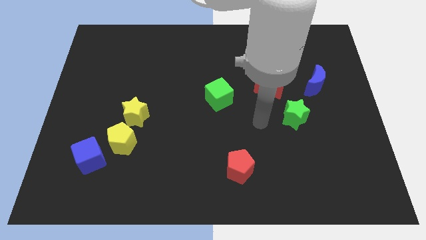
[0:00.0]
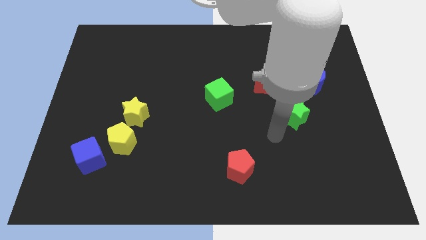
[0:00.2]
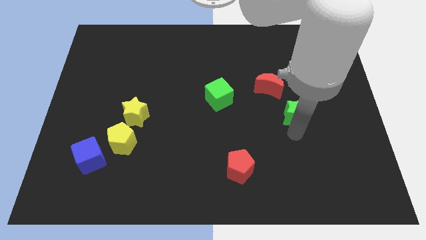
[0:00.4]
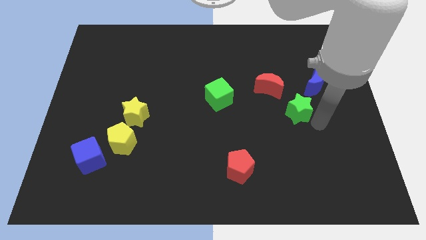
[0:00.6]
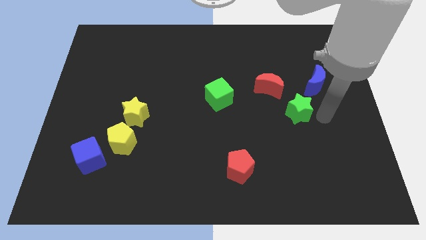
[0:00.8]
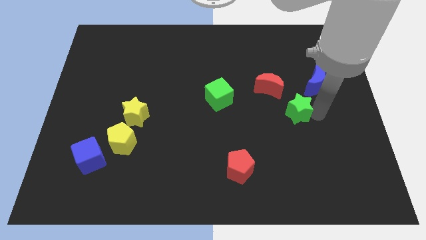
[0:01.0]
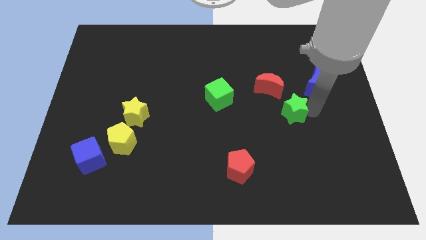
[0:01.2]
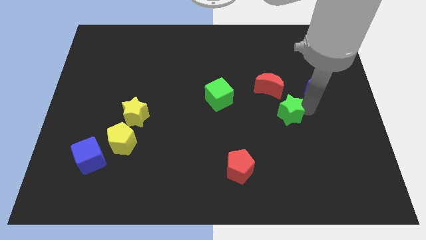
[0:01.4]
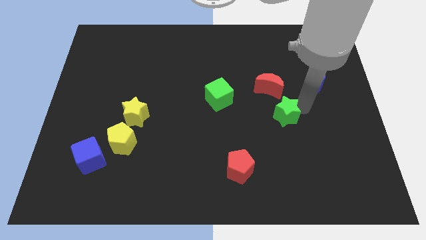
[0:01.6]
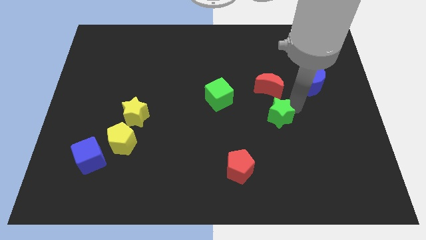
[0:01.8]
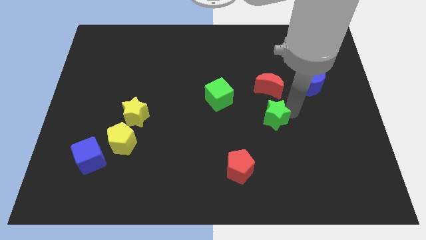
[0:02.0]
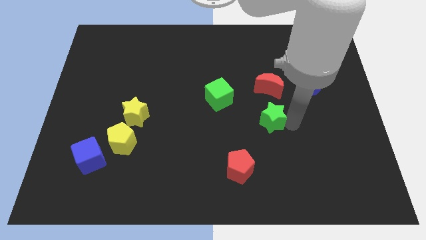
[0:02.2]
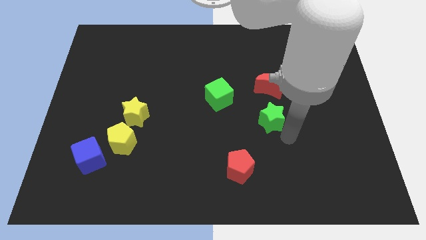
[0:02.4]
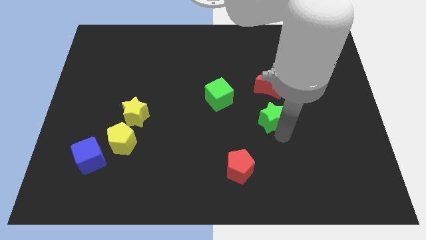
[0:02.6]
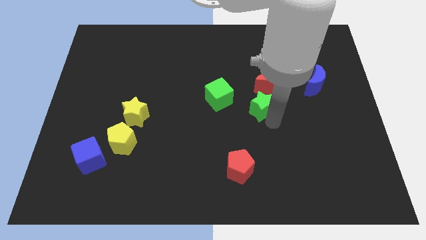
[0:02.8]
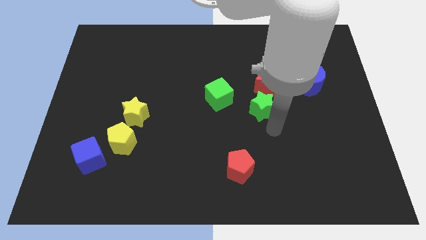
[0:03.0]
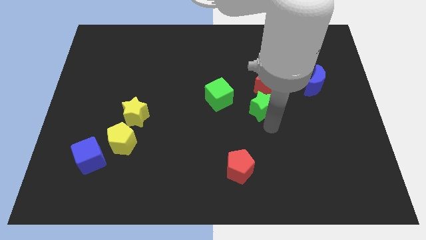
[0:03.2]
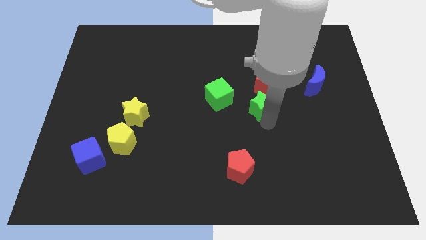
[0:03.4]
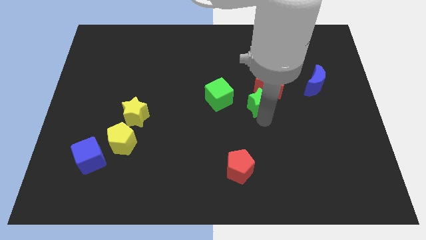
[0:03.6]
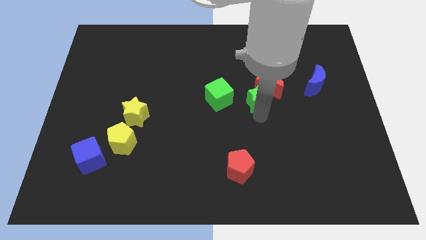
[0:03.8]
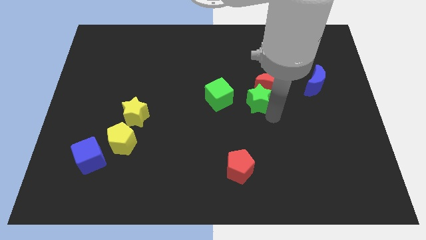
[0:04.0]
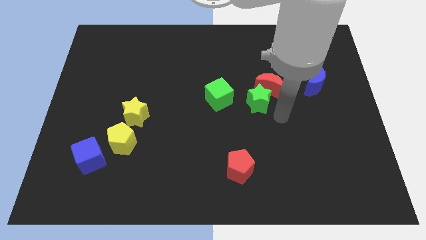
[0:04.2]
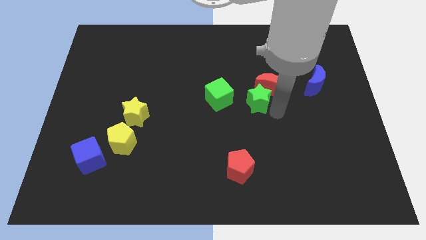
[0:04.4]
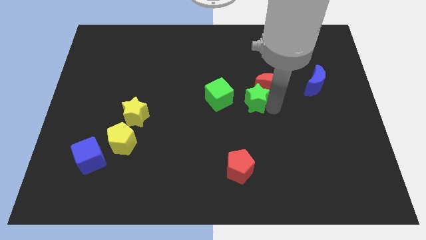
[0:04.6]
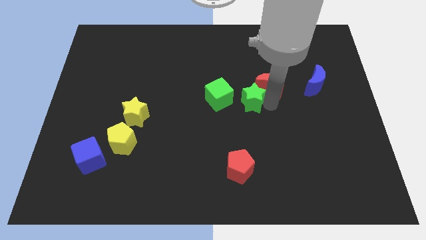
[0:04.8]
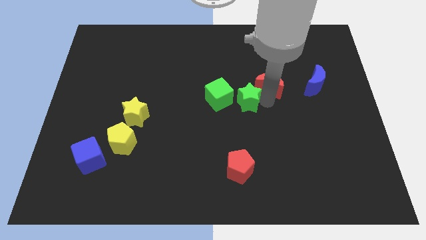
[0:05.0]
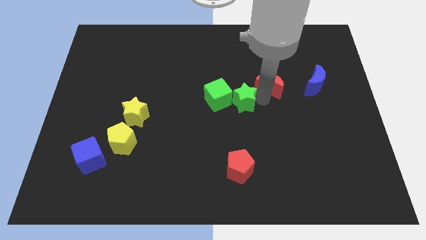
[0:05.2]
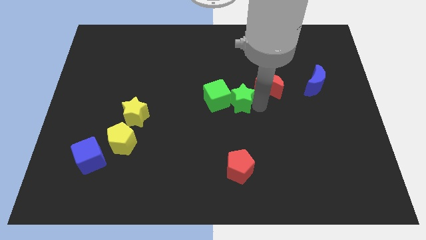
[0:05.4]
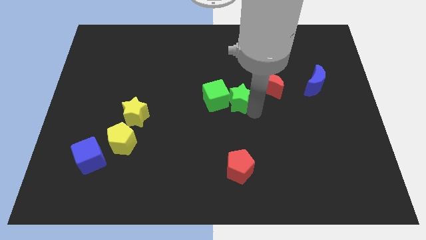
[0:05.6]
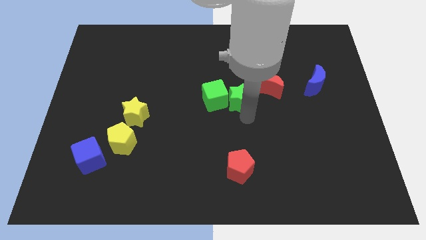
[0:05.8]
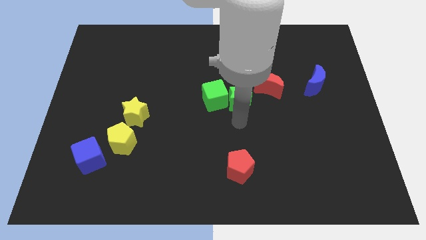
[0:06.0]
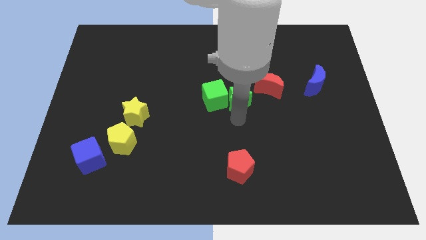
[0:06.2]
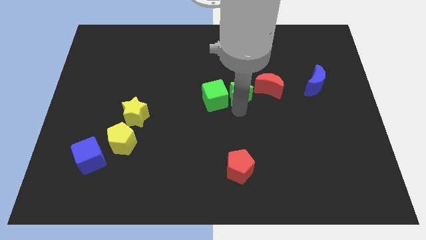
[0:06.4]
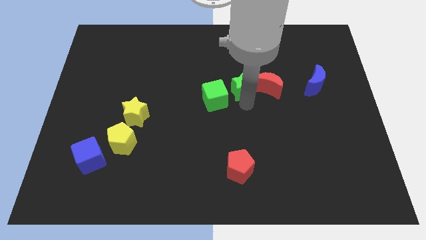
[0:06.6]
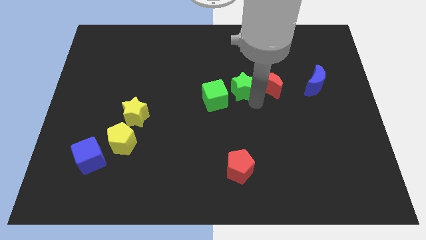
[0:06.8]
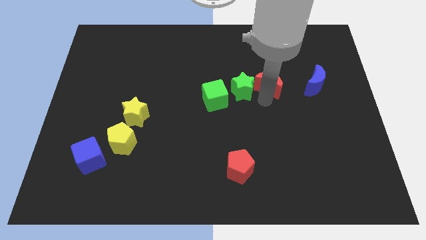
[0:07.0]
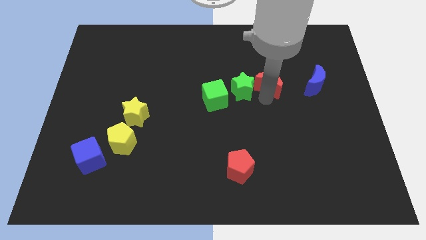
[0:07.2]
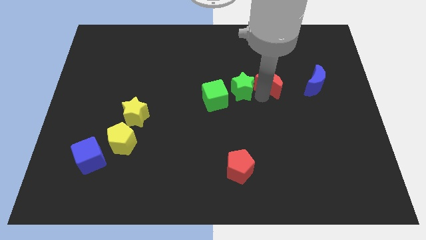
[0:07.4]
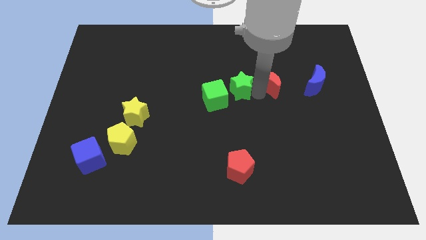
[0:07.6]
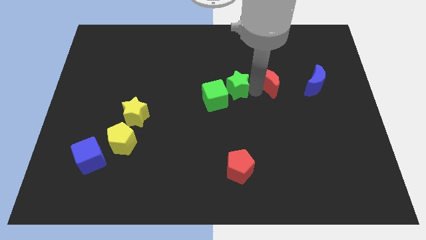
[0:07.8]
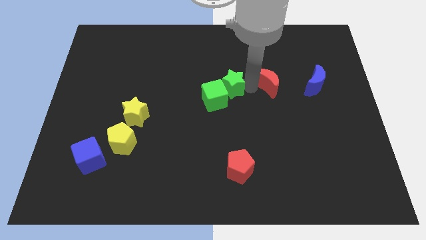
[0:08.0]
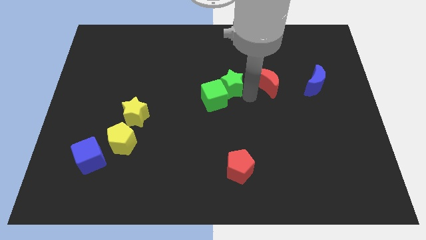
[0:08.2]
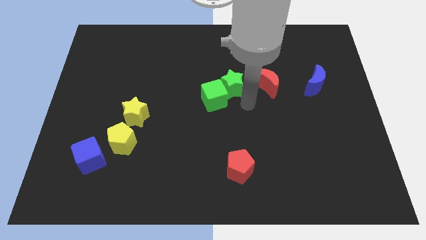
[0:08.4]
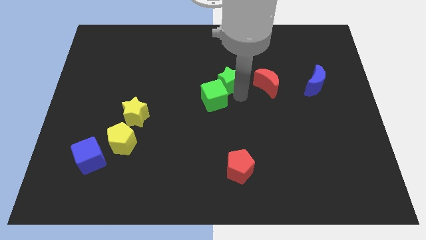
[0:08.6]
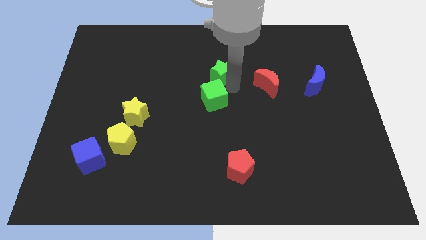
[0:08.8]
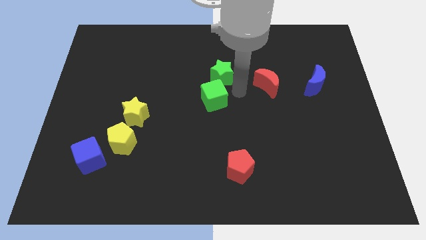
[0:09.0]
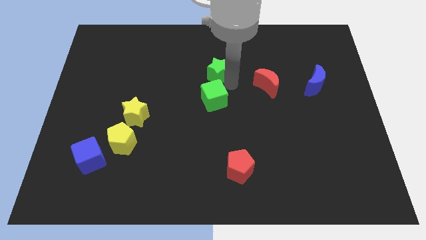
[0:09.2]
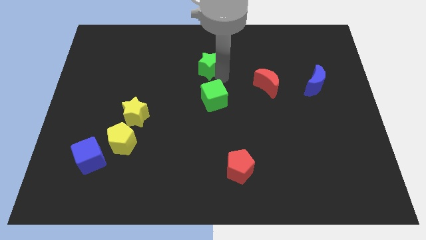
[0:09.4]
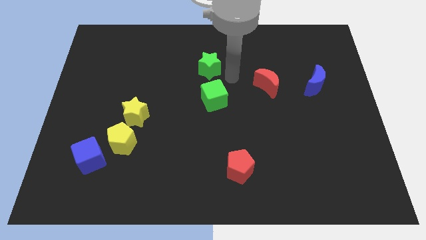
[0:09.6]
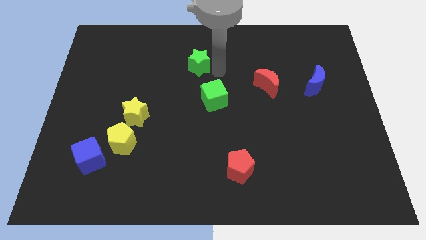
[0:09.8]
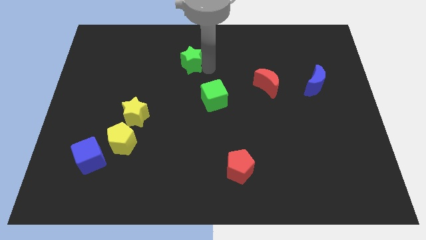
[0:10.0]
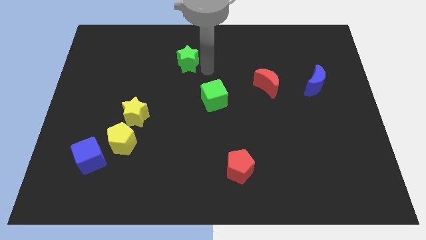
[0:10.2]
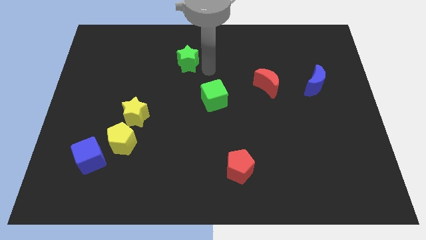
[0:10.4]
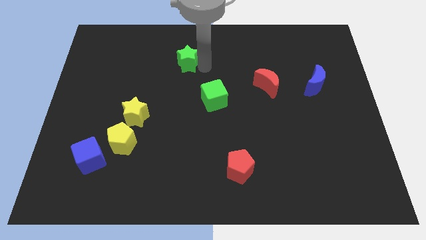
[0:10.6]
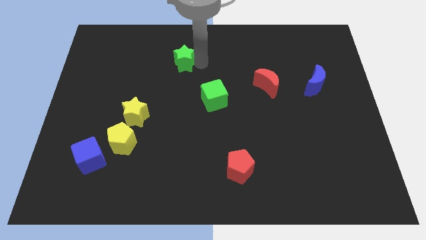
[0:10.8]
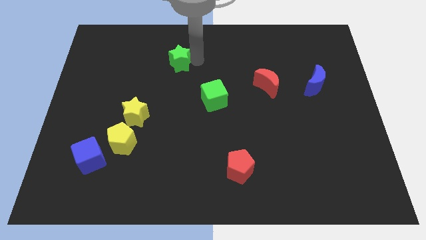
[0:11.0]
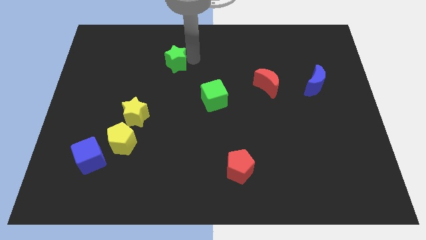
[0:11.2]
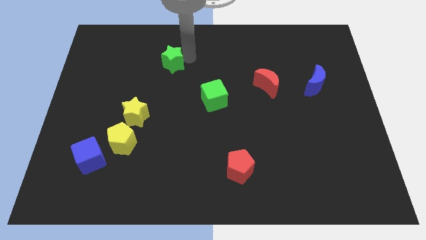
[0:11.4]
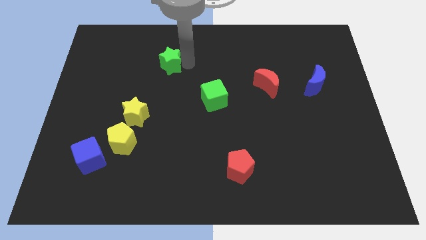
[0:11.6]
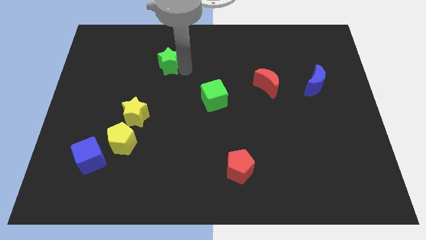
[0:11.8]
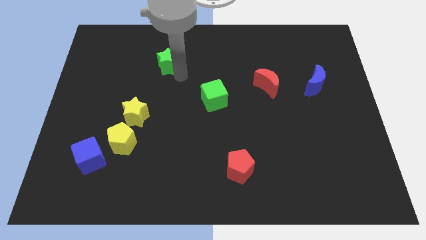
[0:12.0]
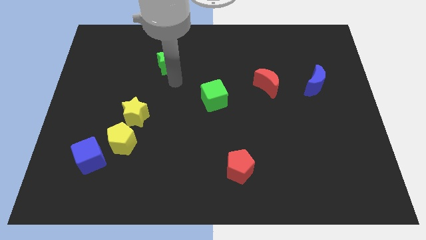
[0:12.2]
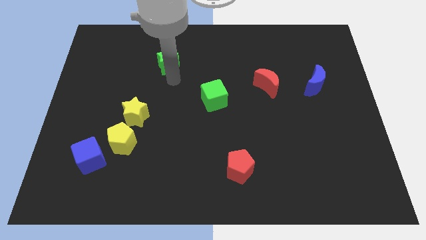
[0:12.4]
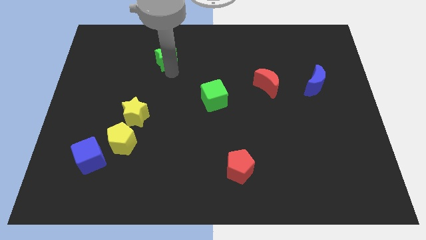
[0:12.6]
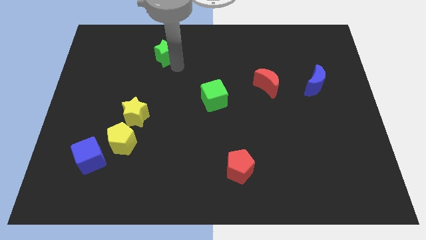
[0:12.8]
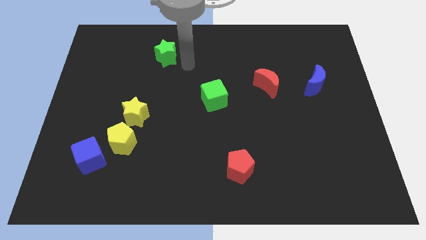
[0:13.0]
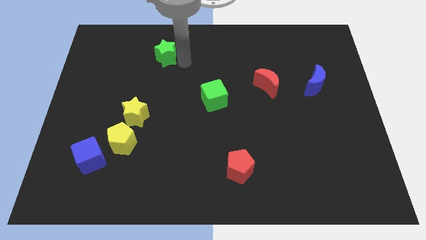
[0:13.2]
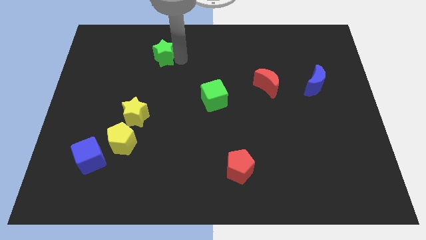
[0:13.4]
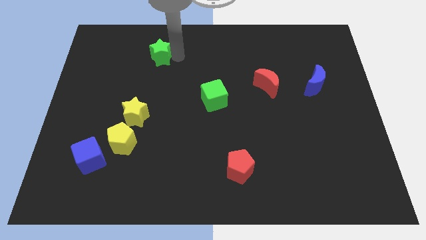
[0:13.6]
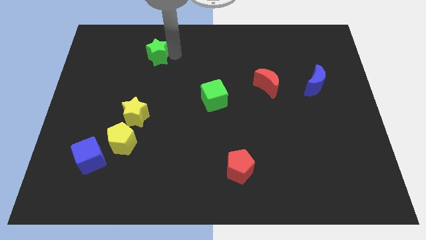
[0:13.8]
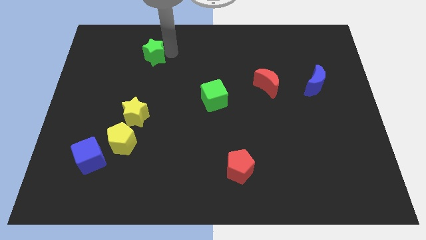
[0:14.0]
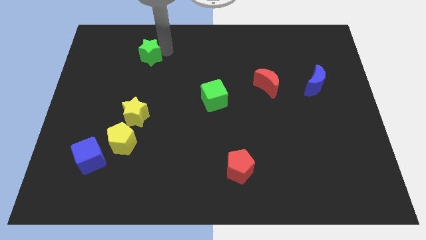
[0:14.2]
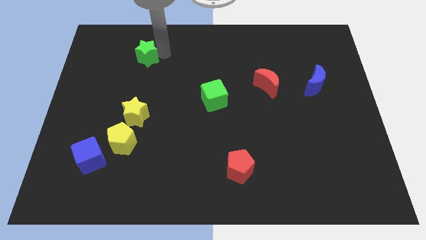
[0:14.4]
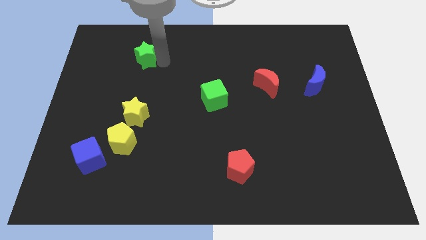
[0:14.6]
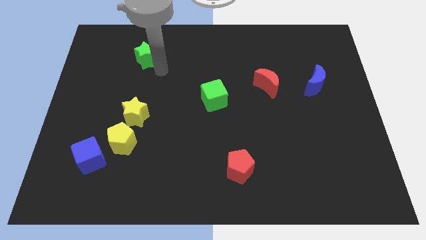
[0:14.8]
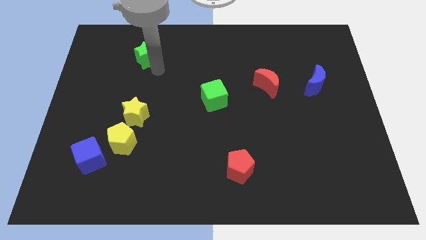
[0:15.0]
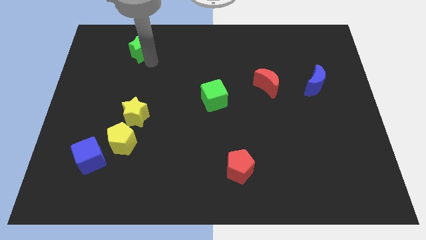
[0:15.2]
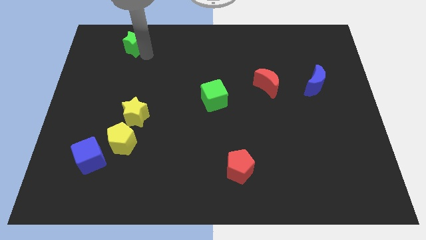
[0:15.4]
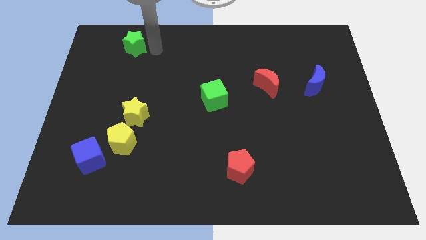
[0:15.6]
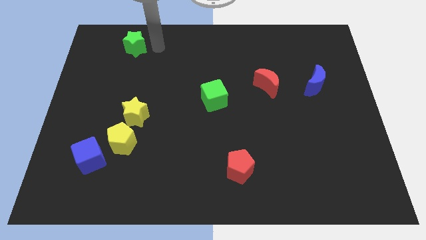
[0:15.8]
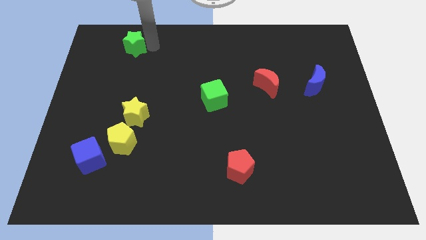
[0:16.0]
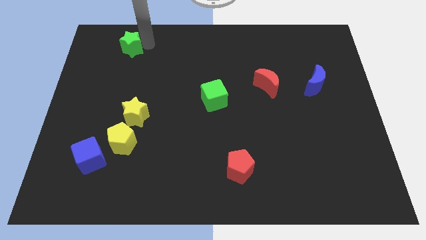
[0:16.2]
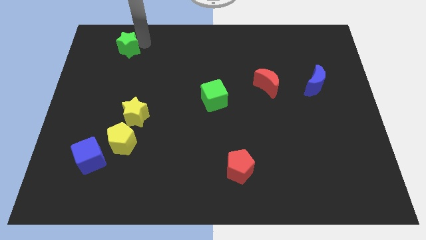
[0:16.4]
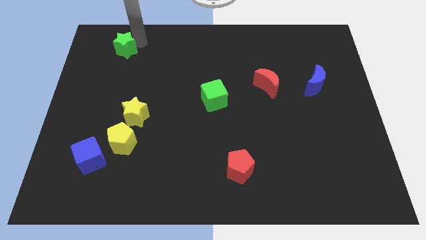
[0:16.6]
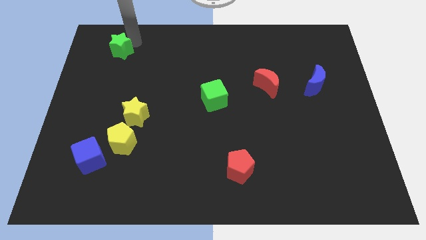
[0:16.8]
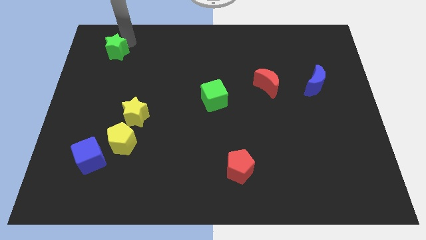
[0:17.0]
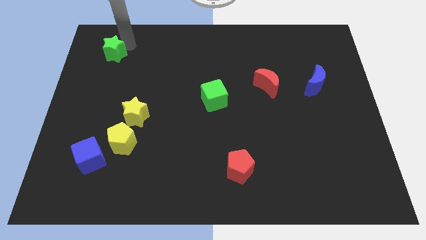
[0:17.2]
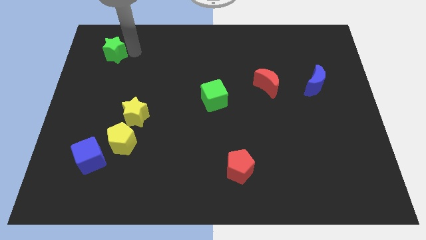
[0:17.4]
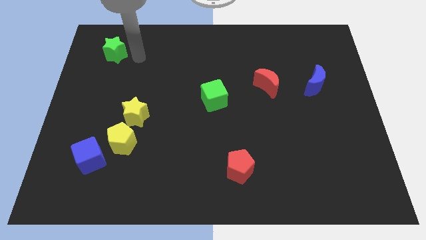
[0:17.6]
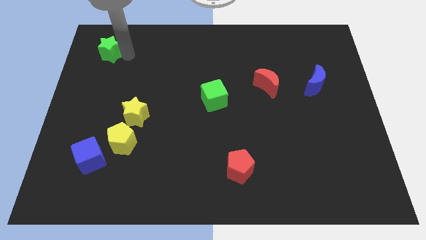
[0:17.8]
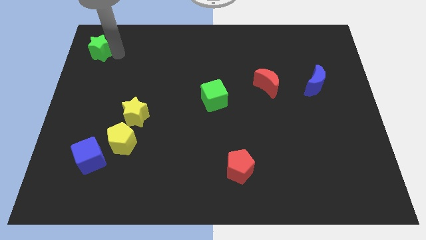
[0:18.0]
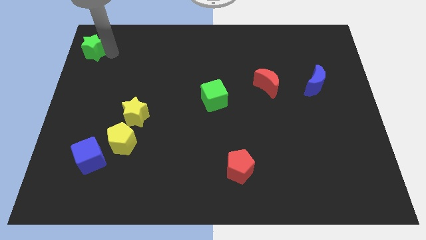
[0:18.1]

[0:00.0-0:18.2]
push the green star to the top left of the board
